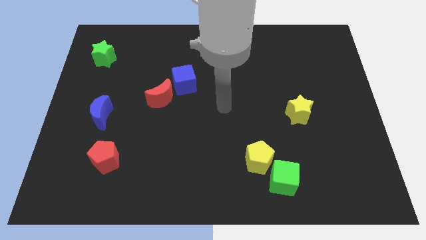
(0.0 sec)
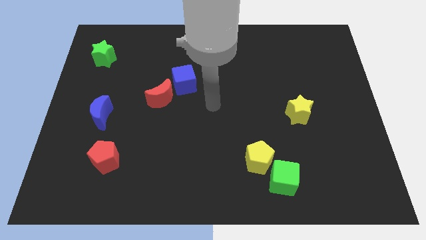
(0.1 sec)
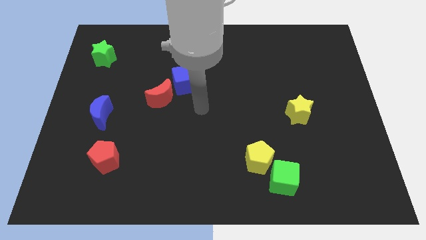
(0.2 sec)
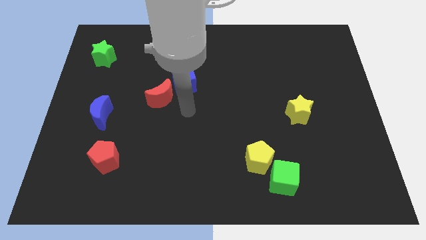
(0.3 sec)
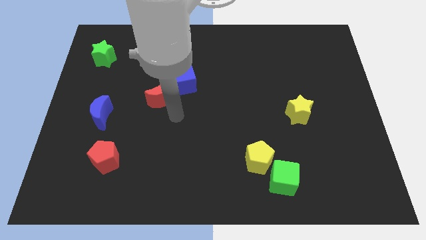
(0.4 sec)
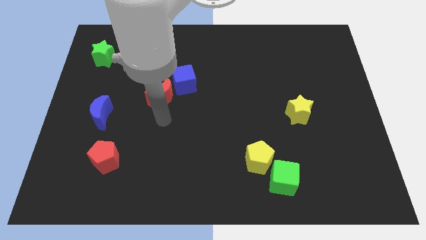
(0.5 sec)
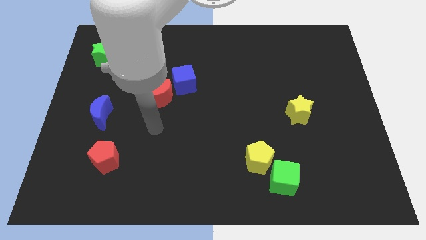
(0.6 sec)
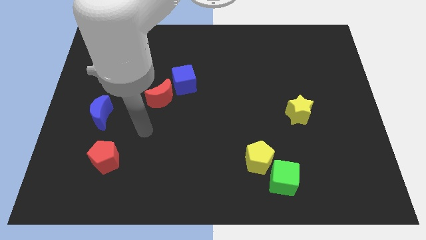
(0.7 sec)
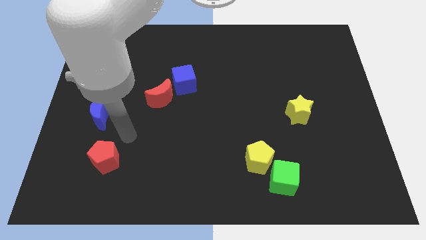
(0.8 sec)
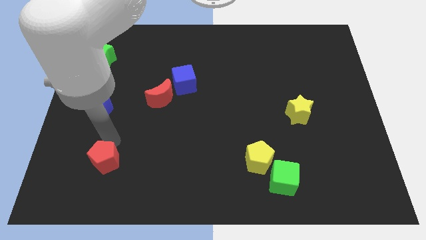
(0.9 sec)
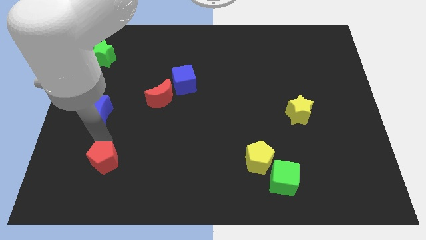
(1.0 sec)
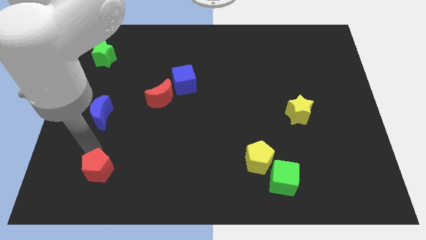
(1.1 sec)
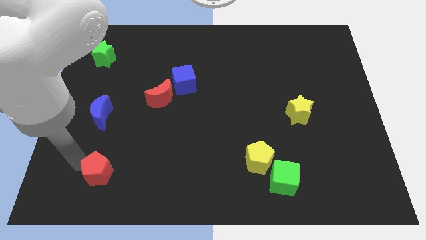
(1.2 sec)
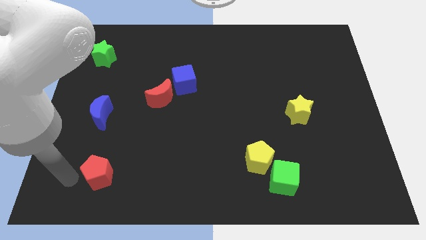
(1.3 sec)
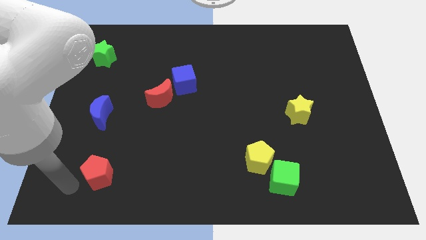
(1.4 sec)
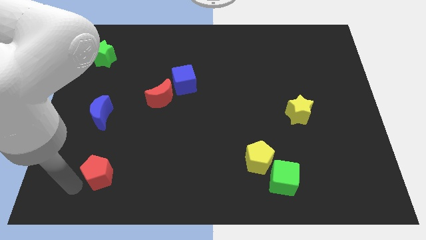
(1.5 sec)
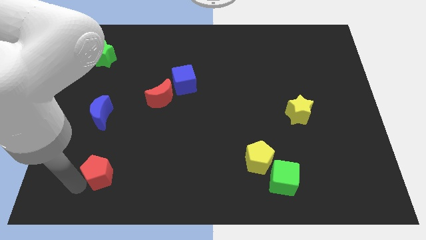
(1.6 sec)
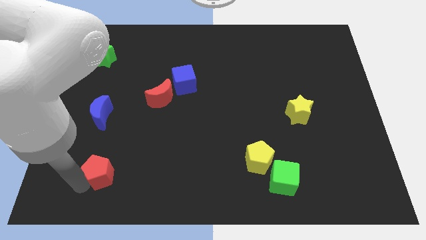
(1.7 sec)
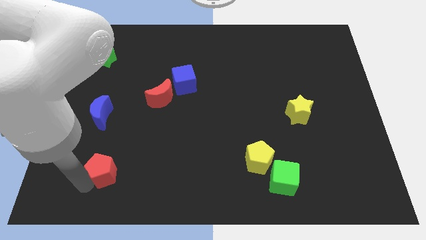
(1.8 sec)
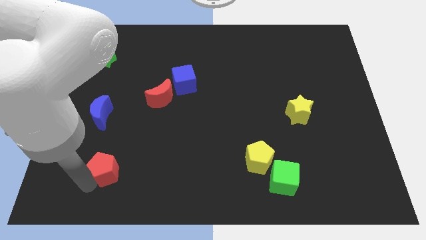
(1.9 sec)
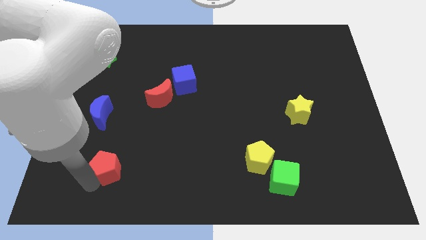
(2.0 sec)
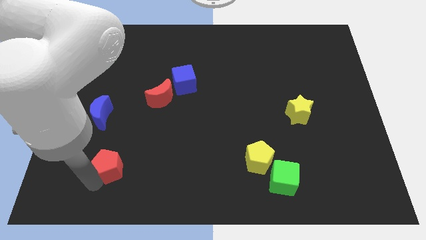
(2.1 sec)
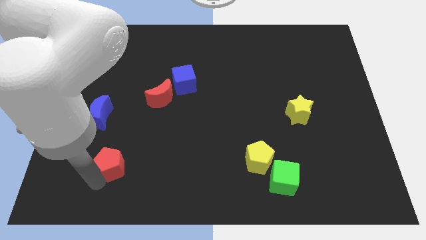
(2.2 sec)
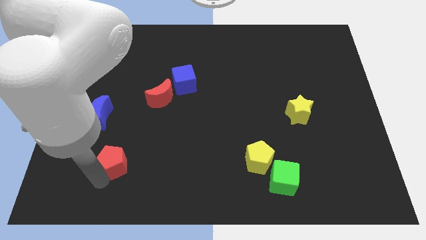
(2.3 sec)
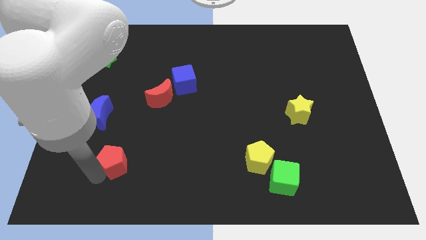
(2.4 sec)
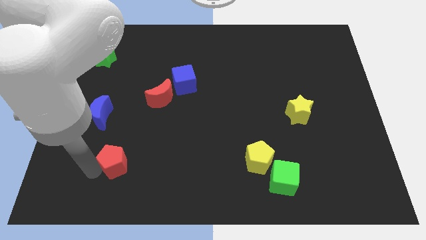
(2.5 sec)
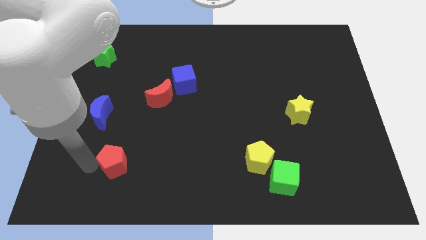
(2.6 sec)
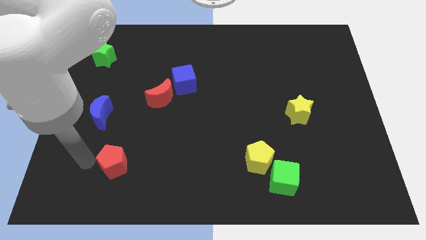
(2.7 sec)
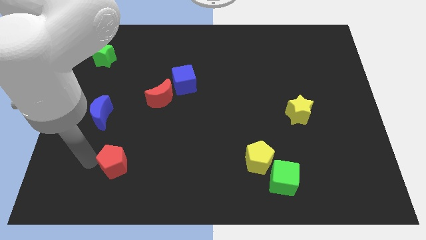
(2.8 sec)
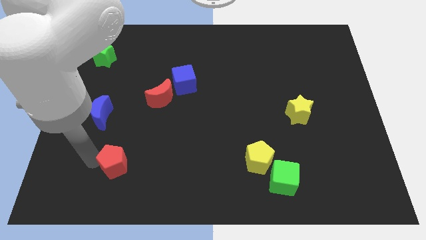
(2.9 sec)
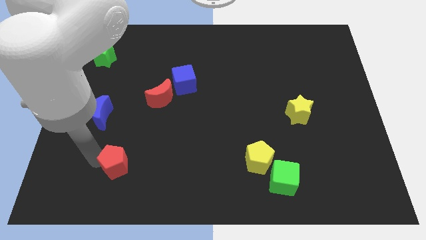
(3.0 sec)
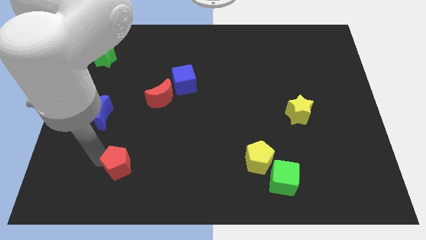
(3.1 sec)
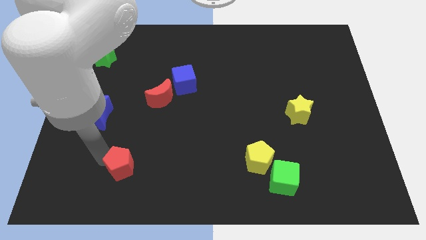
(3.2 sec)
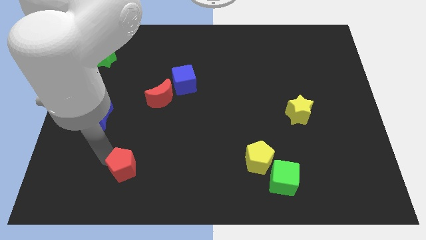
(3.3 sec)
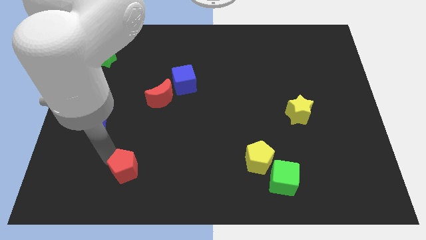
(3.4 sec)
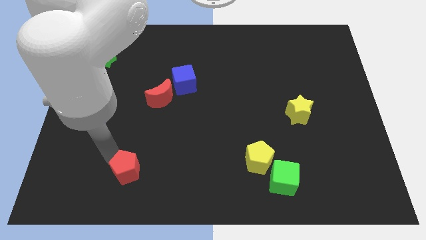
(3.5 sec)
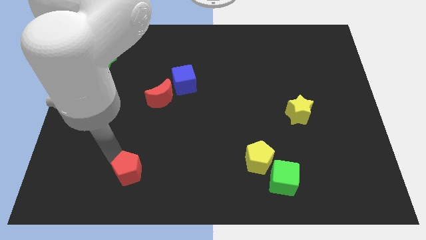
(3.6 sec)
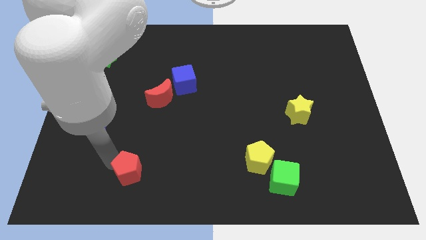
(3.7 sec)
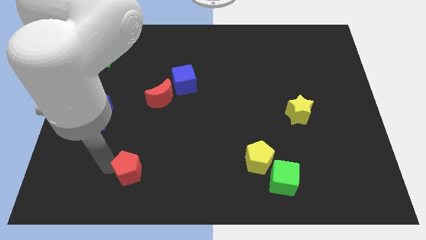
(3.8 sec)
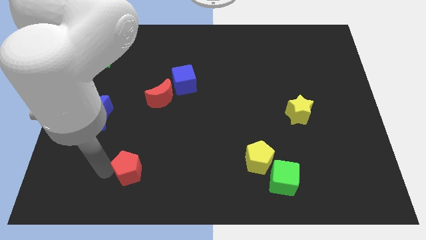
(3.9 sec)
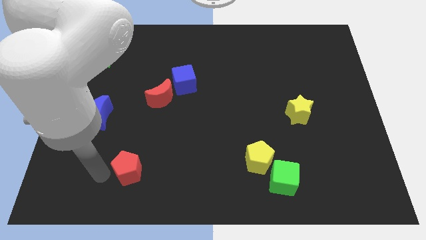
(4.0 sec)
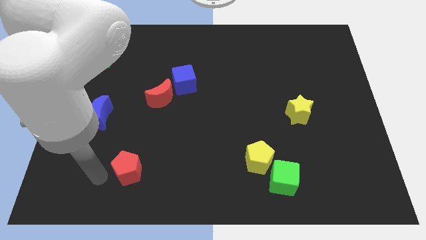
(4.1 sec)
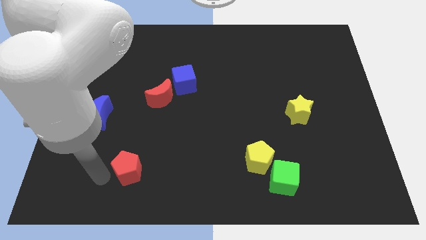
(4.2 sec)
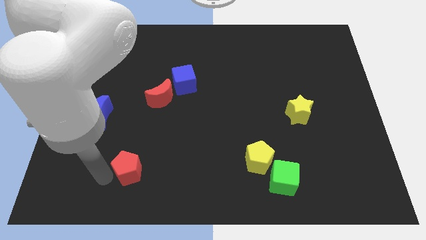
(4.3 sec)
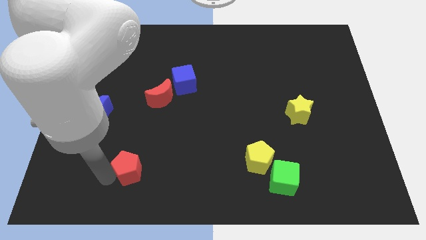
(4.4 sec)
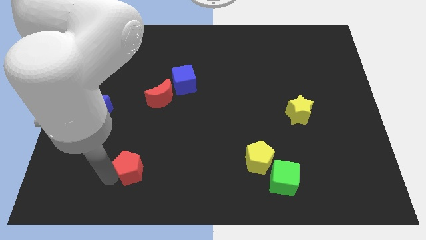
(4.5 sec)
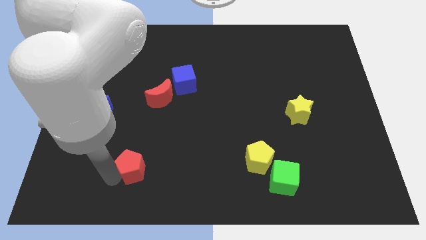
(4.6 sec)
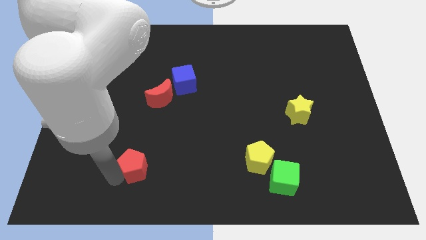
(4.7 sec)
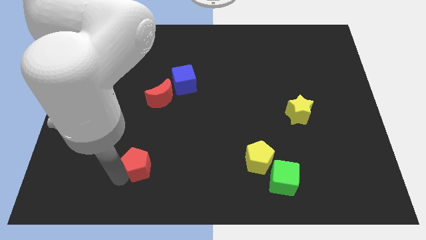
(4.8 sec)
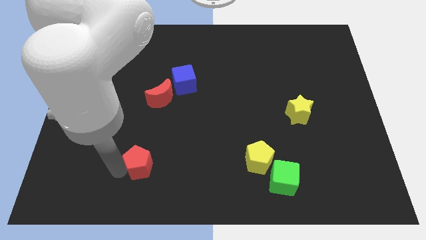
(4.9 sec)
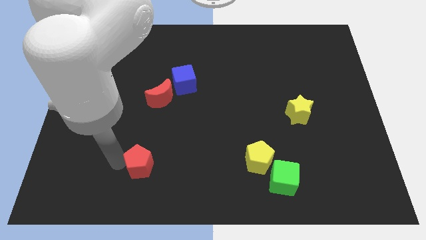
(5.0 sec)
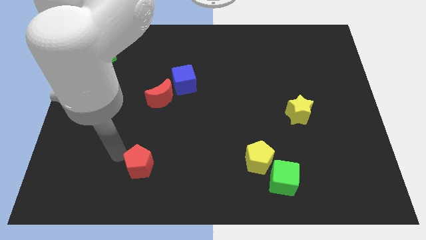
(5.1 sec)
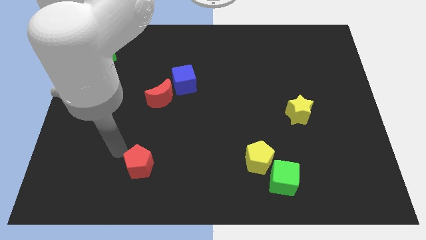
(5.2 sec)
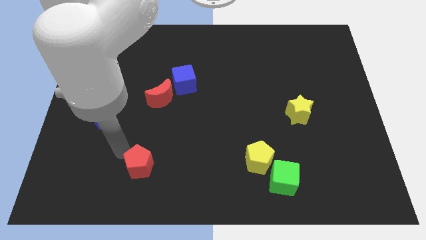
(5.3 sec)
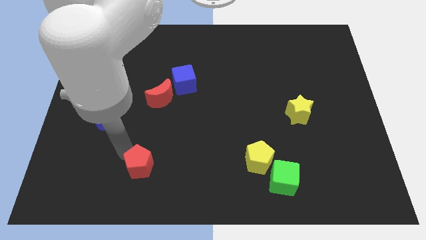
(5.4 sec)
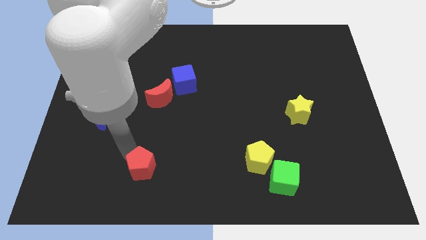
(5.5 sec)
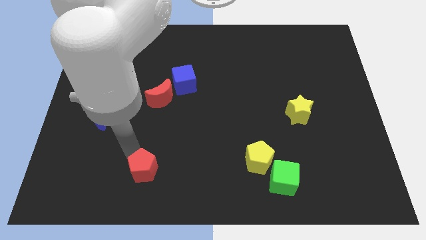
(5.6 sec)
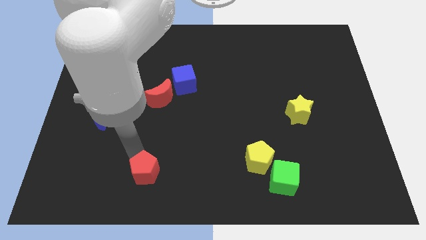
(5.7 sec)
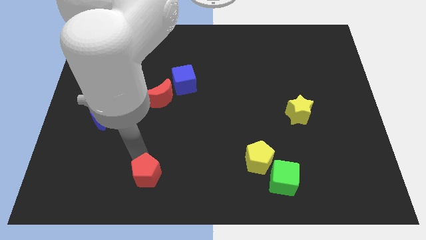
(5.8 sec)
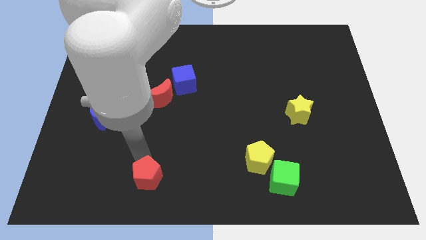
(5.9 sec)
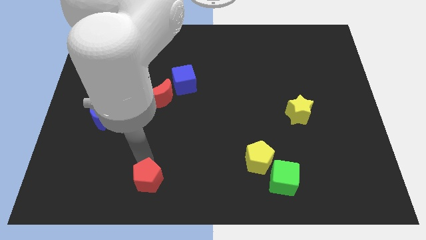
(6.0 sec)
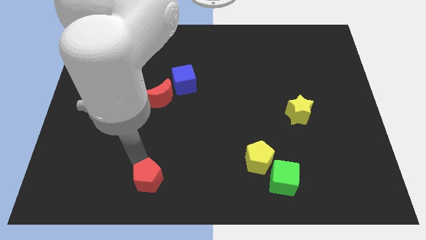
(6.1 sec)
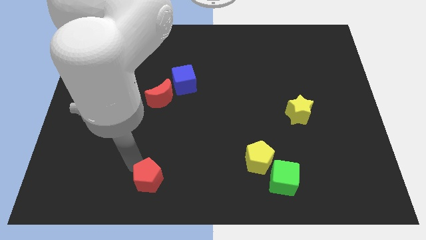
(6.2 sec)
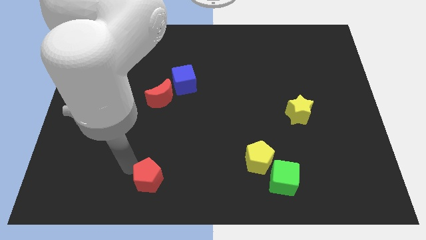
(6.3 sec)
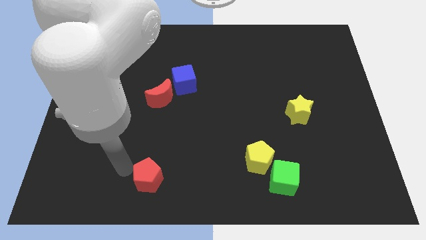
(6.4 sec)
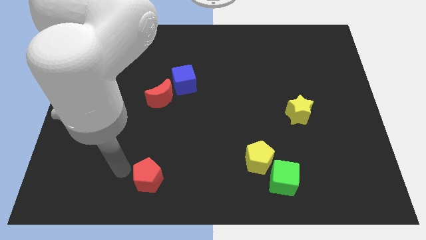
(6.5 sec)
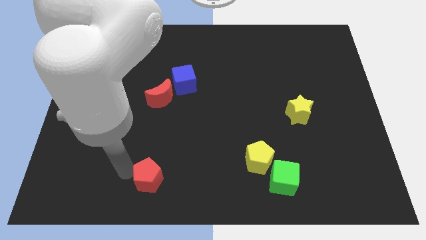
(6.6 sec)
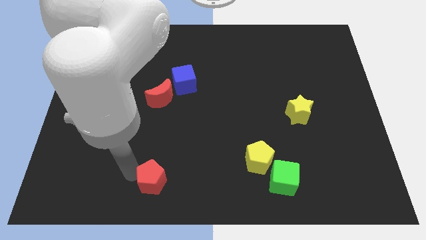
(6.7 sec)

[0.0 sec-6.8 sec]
slide the red pentagon to the bottom
